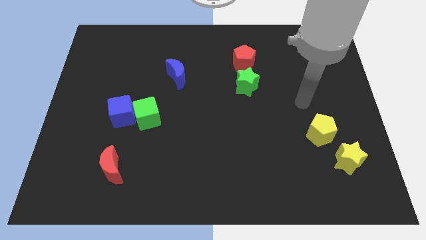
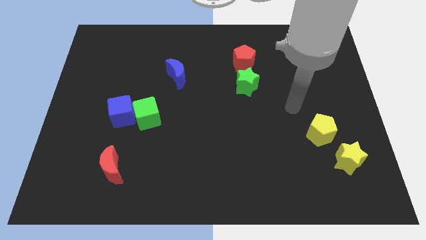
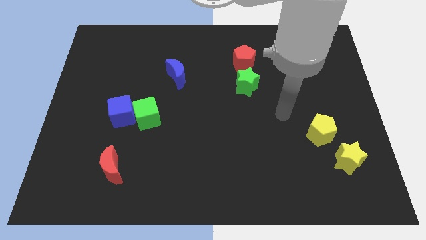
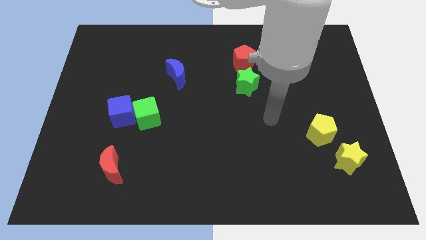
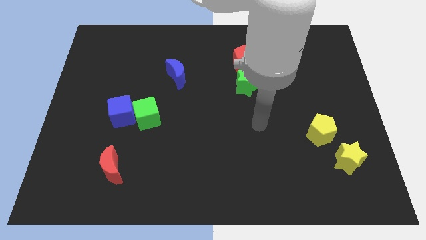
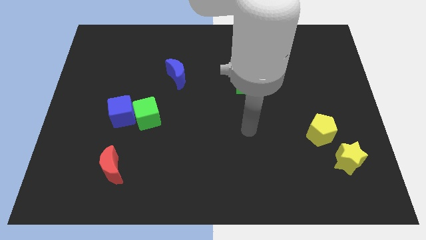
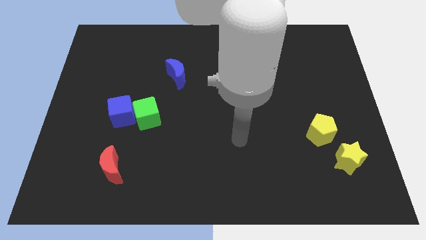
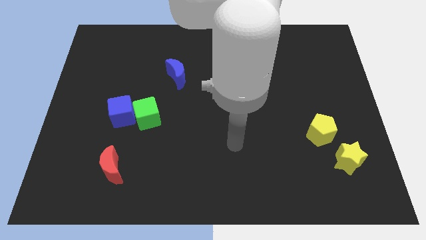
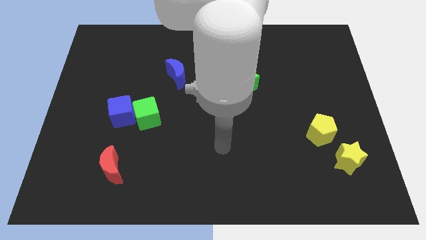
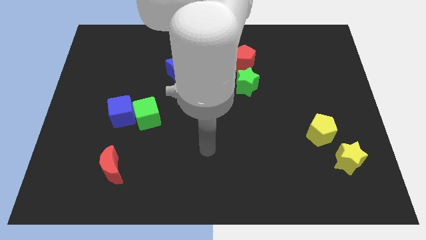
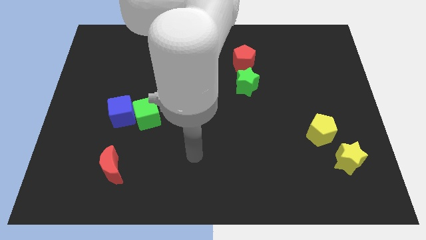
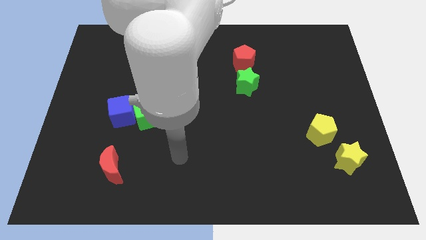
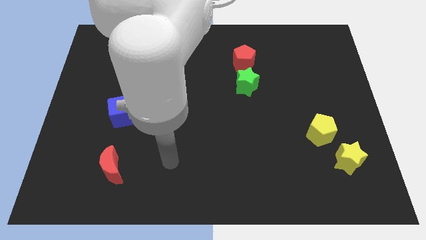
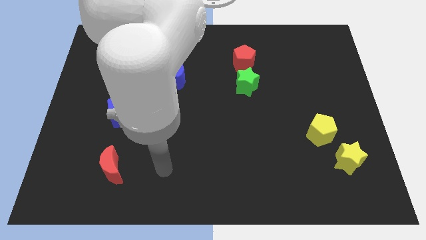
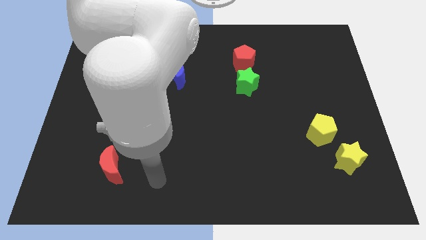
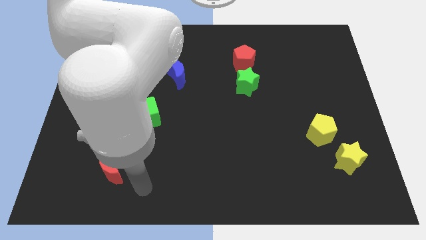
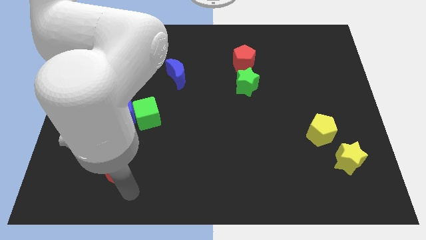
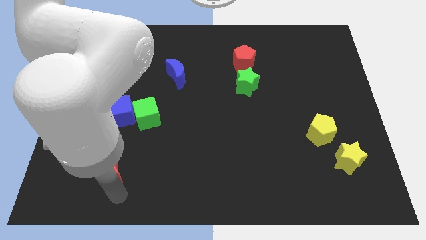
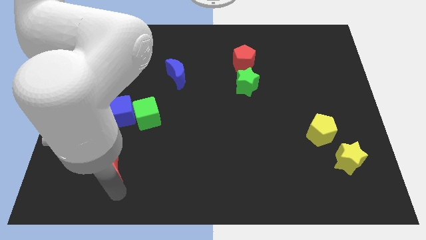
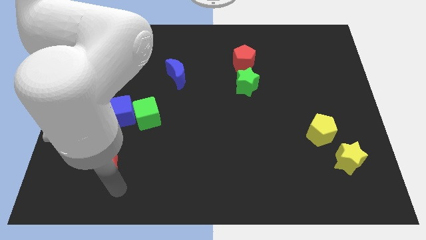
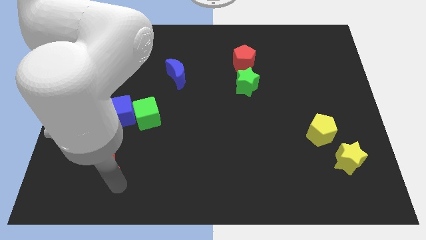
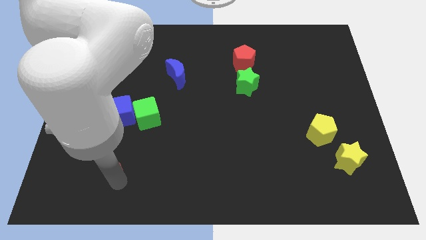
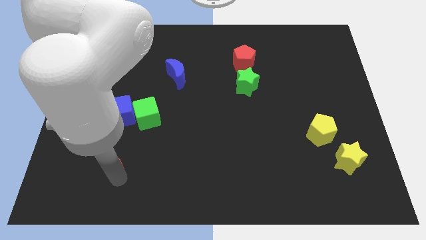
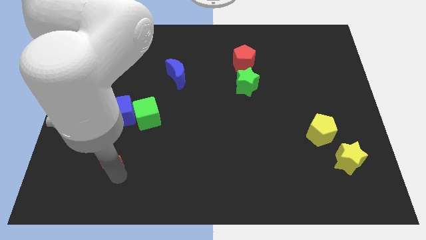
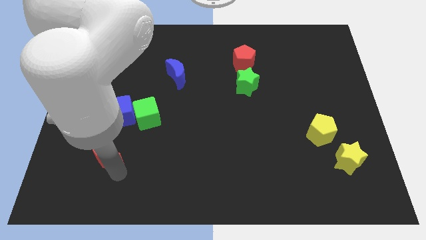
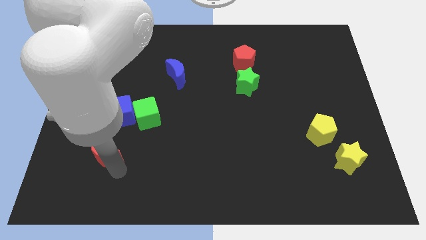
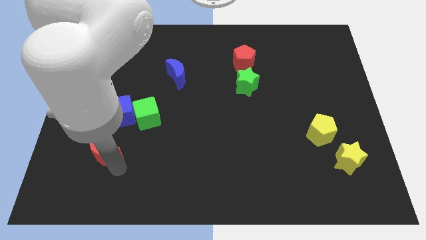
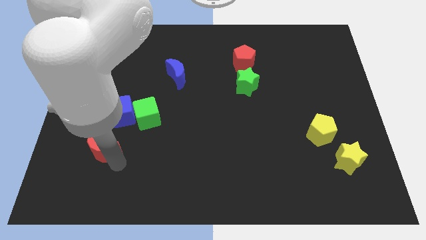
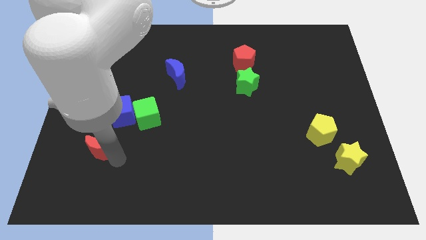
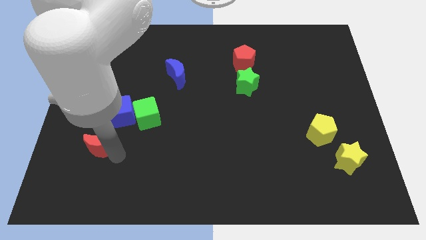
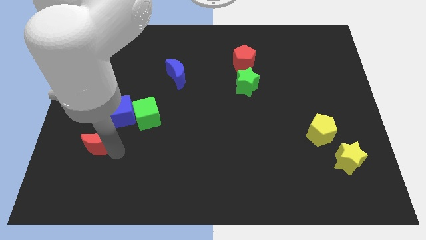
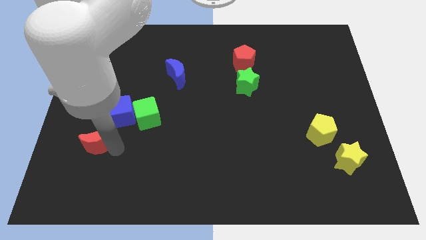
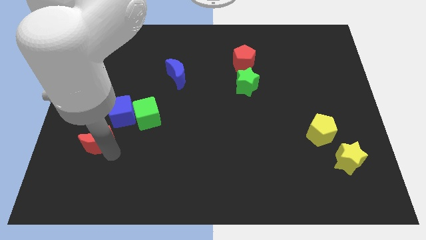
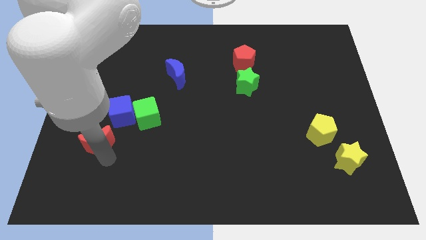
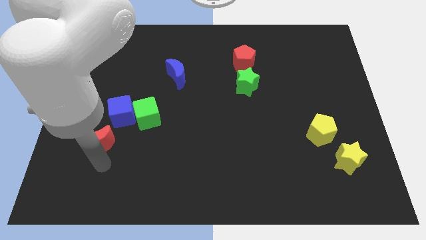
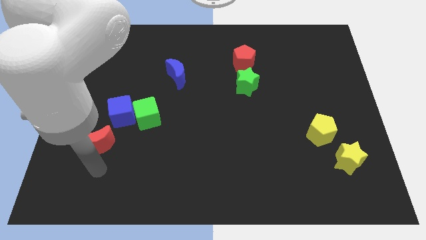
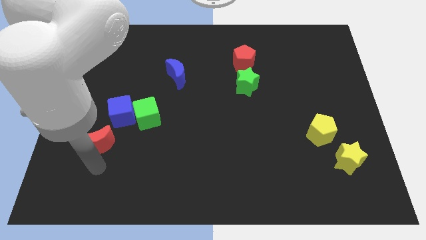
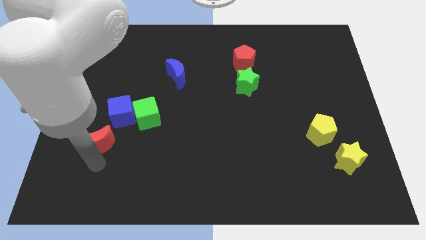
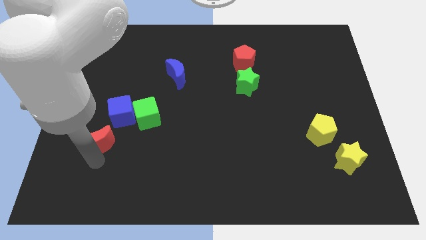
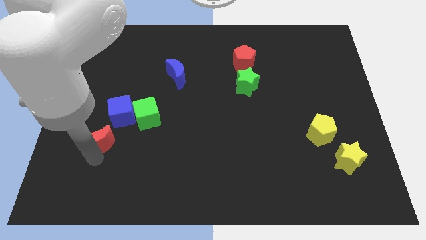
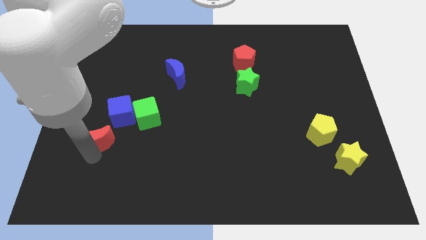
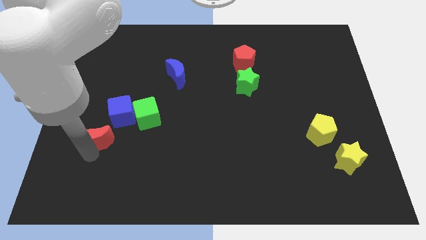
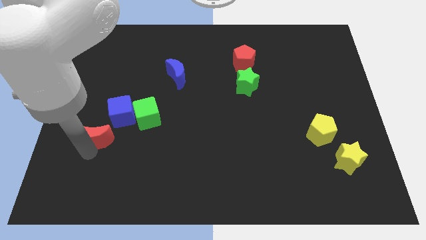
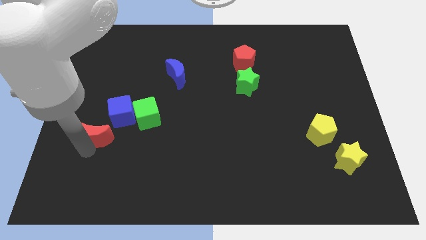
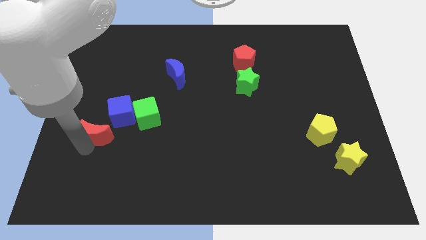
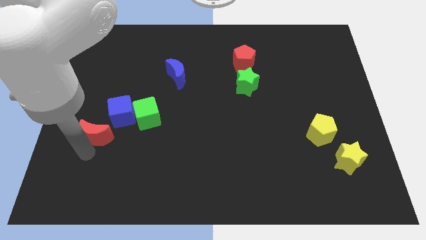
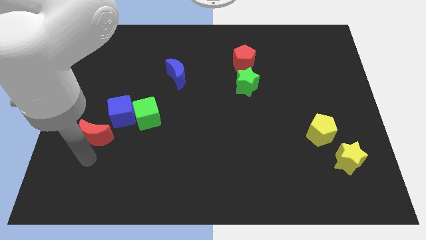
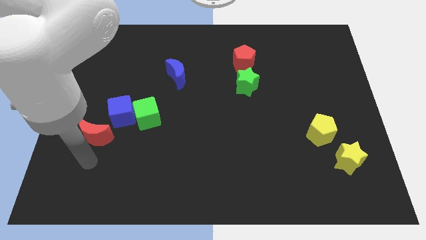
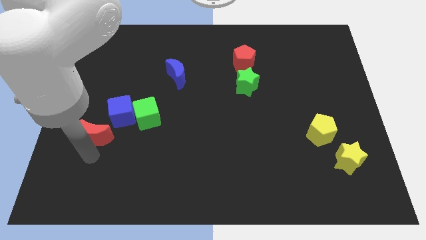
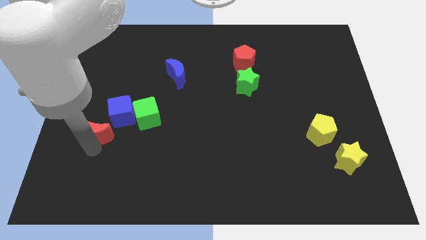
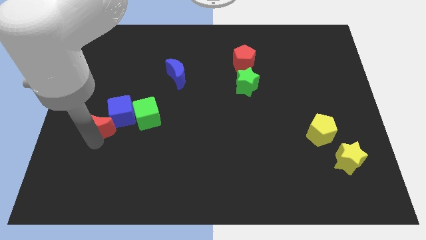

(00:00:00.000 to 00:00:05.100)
move the red moon to the left side of the green cube

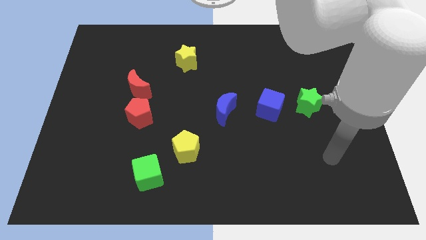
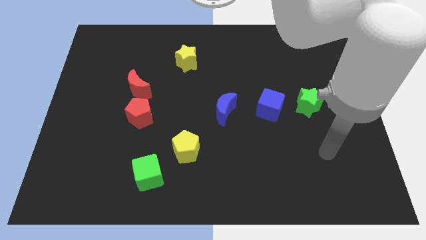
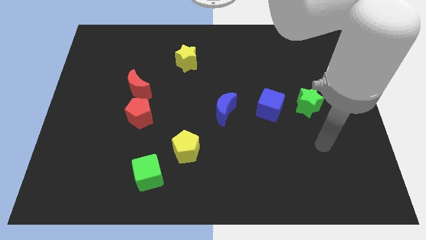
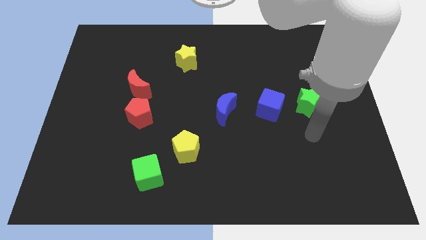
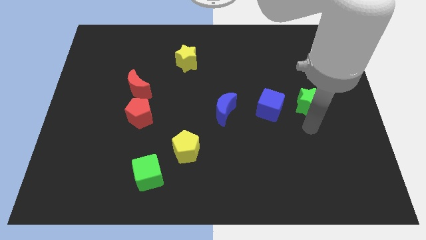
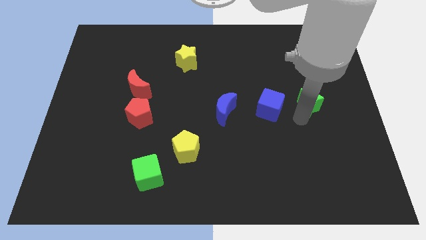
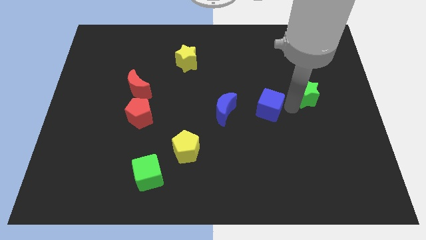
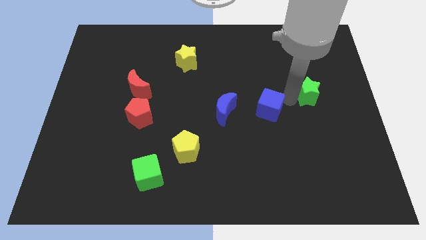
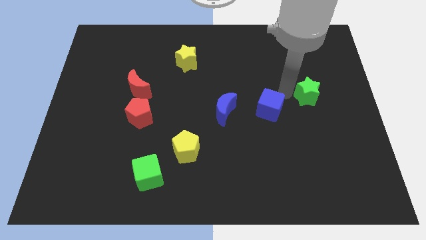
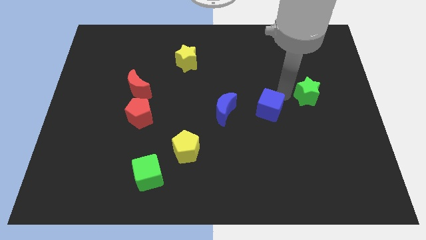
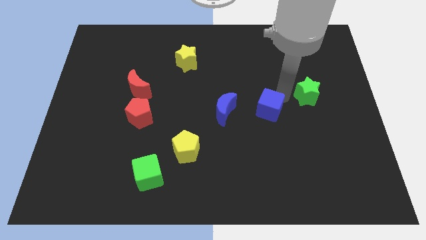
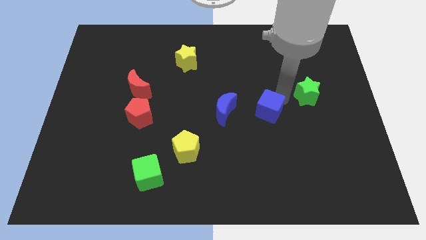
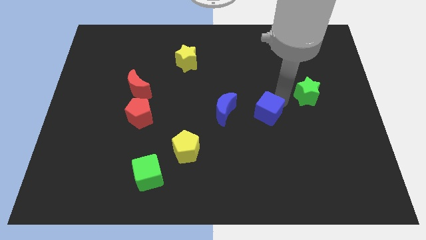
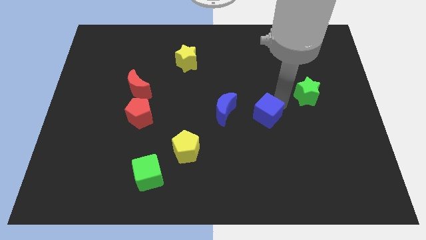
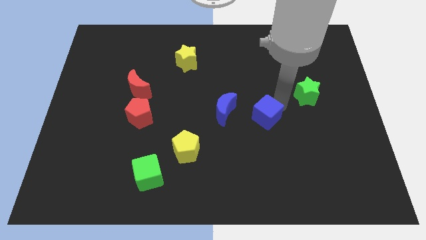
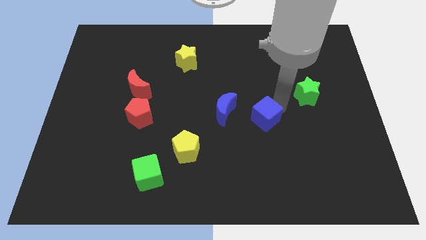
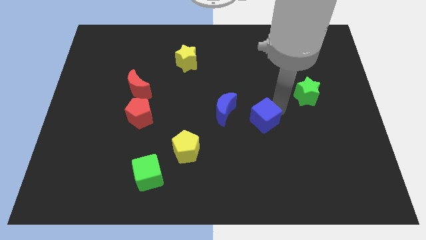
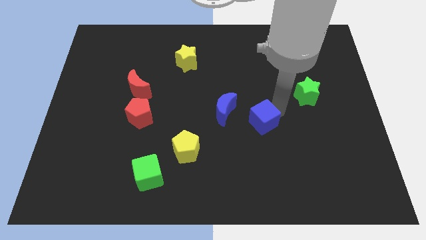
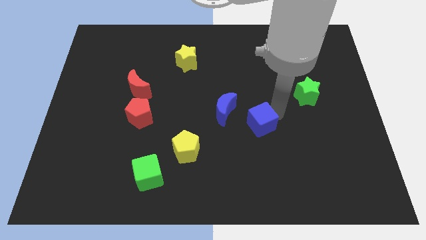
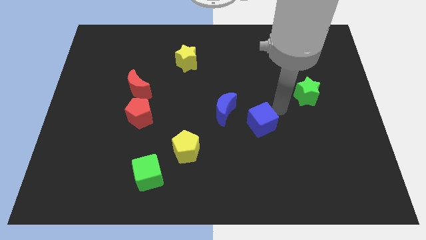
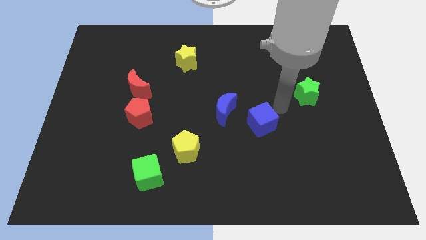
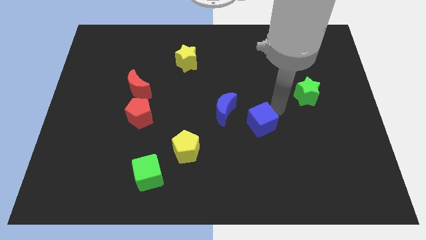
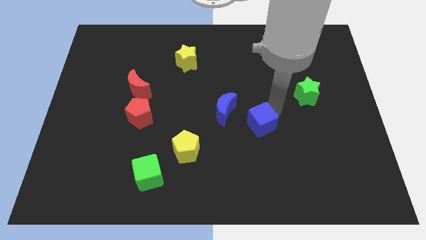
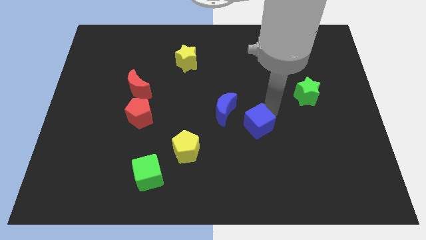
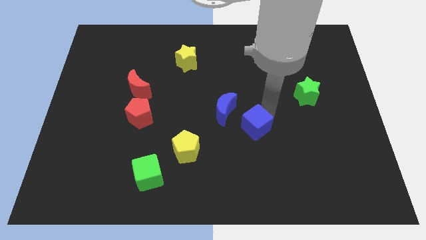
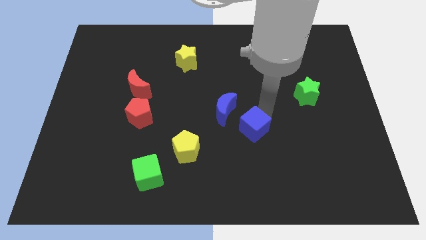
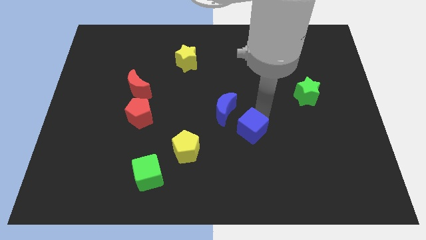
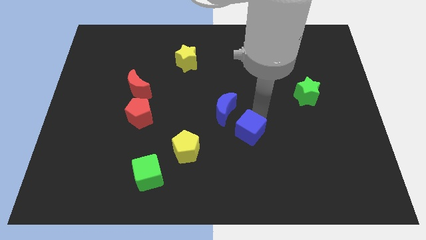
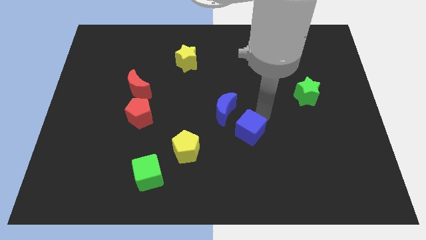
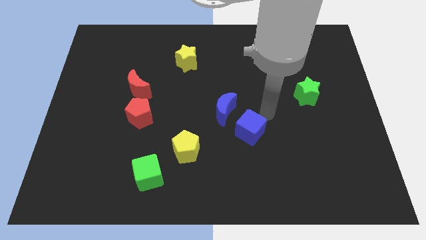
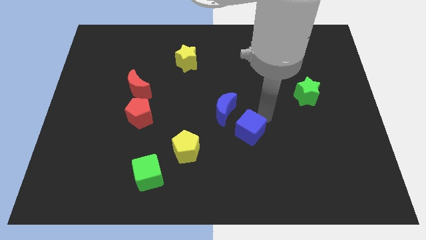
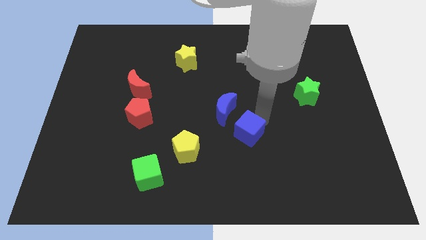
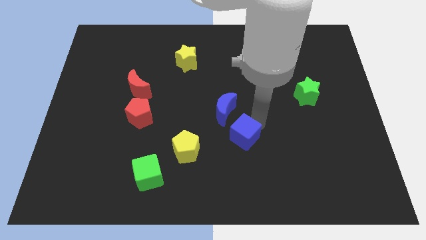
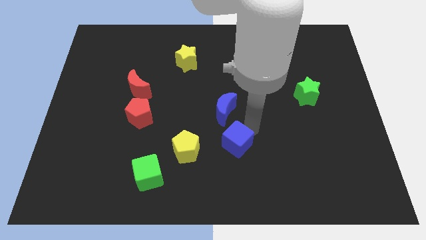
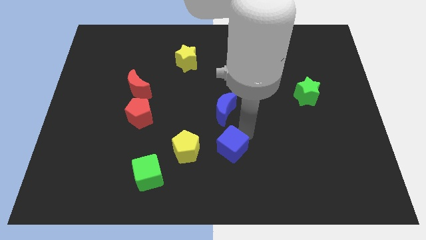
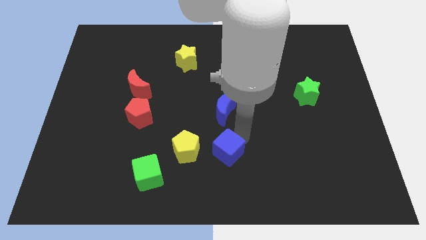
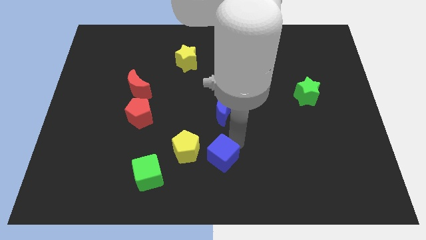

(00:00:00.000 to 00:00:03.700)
slide the blue cube diagonally down and to the right of the yellow pentagon
